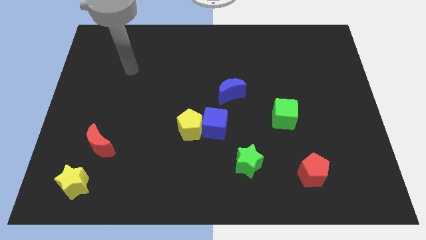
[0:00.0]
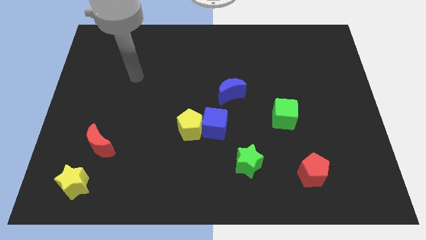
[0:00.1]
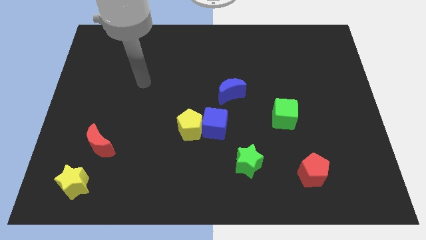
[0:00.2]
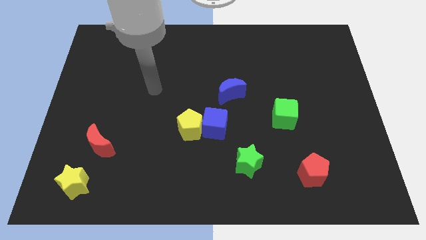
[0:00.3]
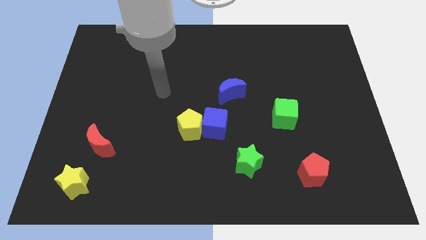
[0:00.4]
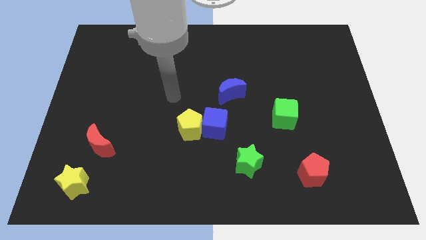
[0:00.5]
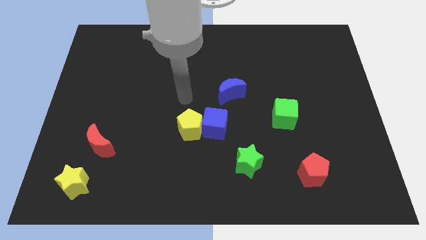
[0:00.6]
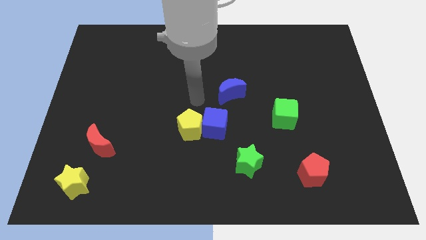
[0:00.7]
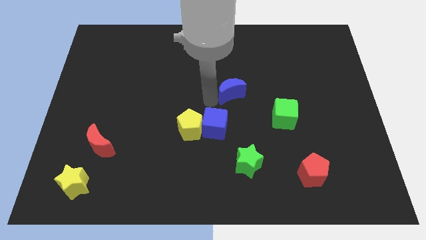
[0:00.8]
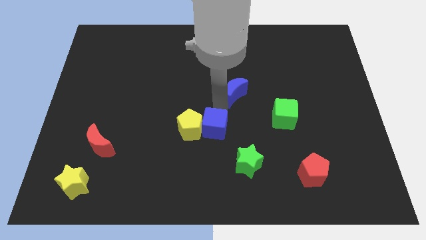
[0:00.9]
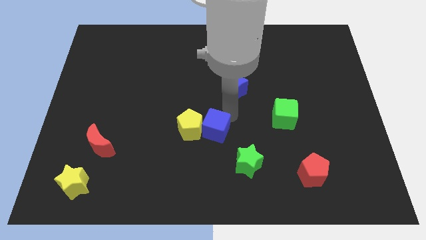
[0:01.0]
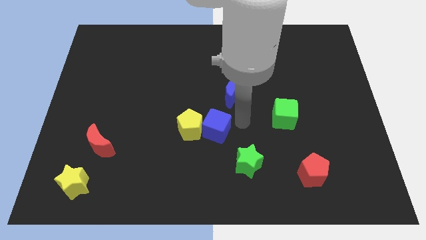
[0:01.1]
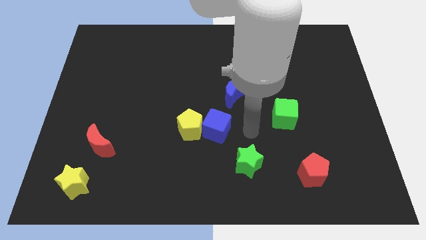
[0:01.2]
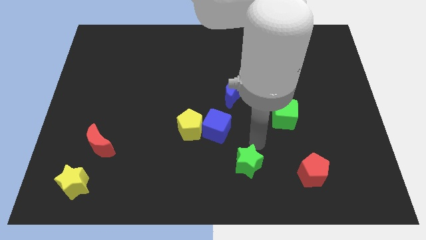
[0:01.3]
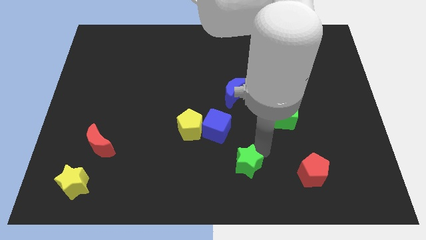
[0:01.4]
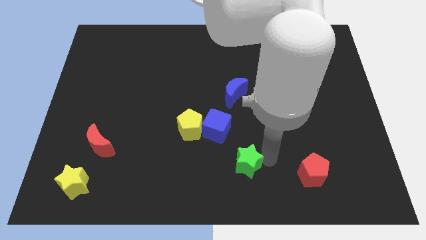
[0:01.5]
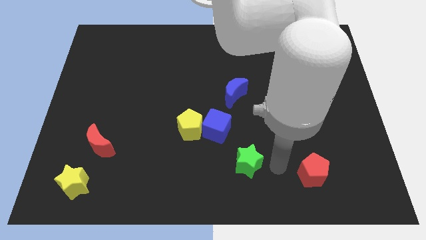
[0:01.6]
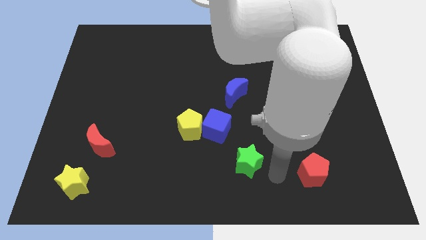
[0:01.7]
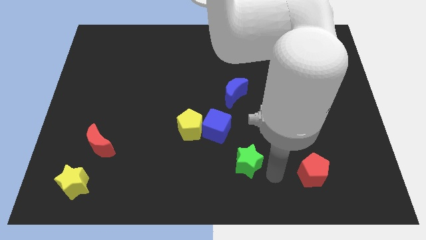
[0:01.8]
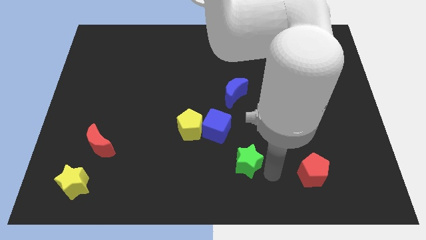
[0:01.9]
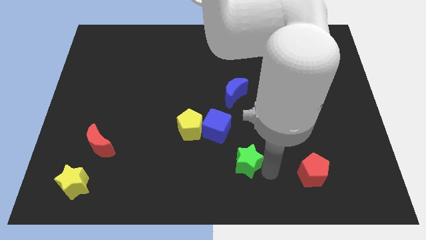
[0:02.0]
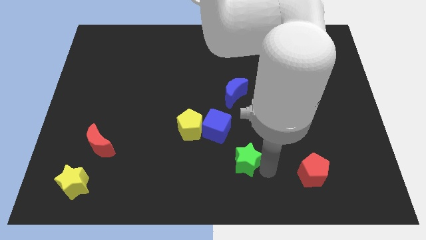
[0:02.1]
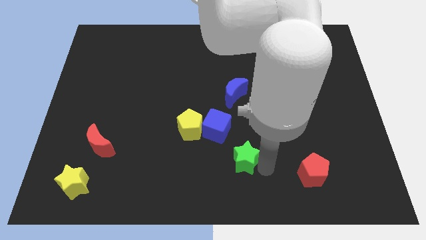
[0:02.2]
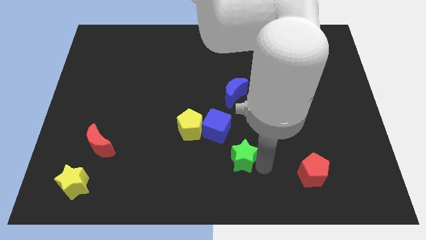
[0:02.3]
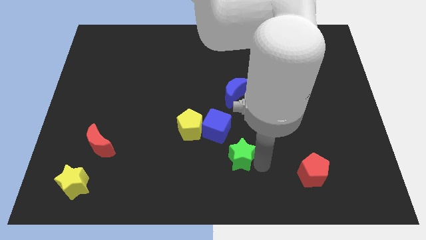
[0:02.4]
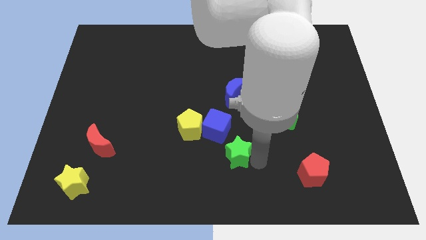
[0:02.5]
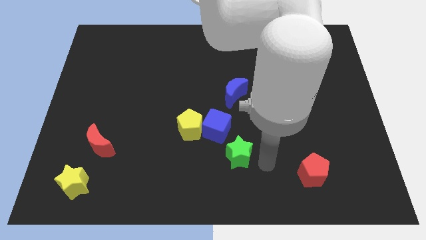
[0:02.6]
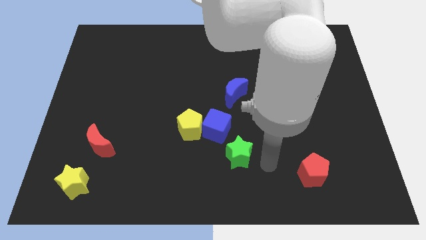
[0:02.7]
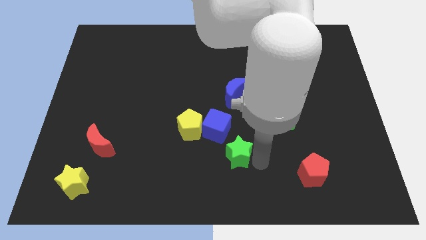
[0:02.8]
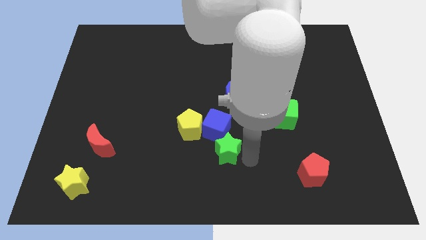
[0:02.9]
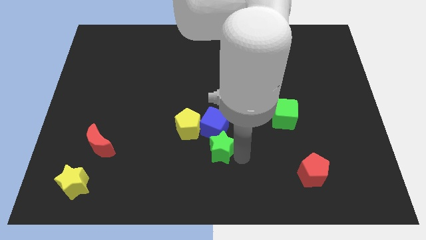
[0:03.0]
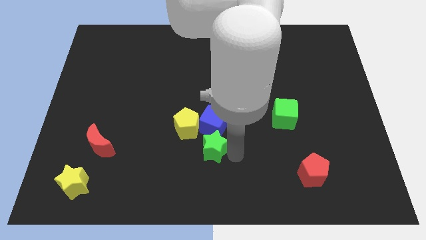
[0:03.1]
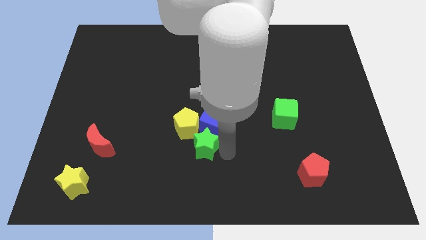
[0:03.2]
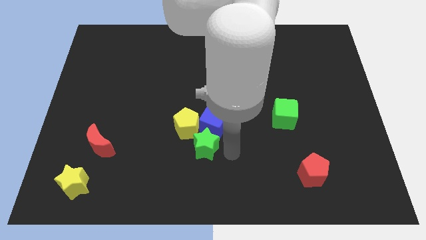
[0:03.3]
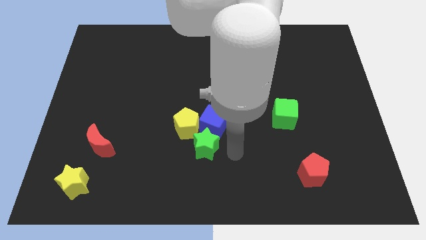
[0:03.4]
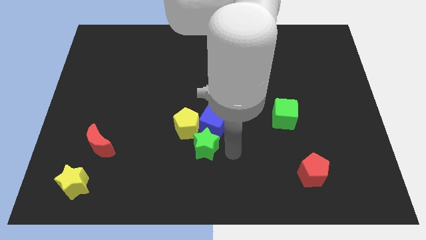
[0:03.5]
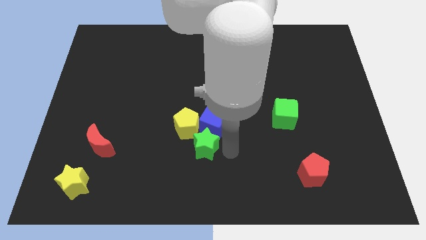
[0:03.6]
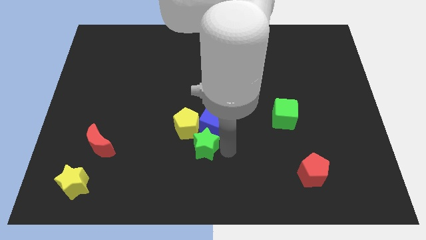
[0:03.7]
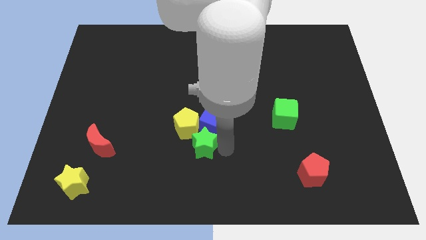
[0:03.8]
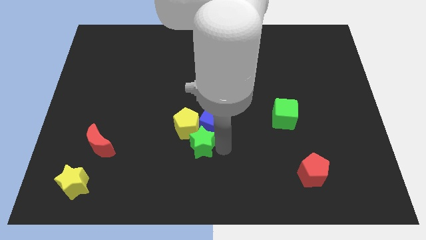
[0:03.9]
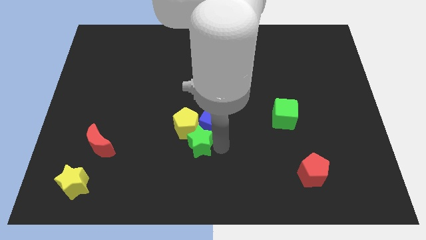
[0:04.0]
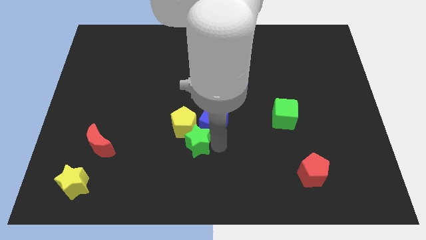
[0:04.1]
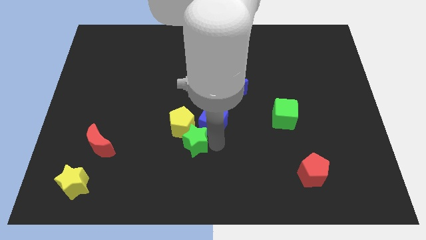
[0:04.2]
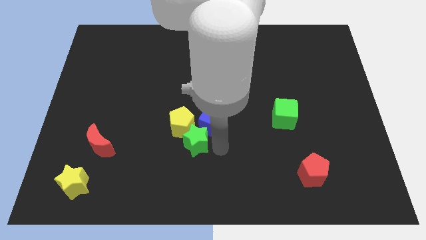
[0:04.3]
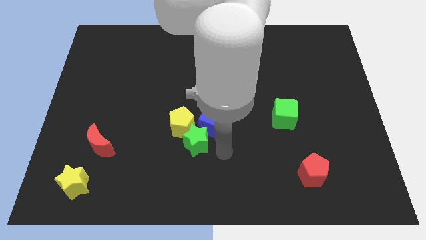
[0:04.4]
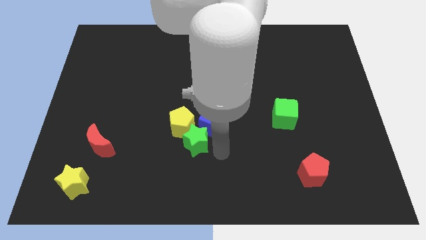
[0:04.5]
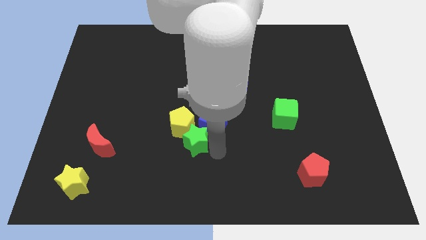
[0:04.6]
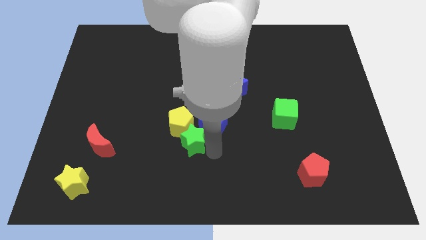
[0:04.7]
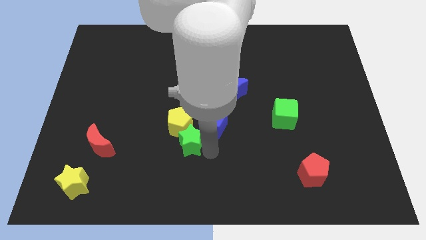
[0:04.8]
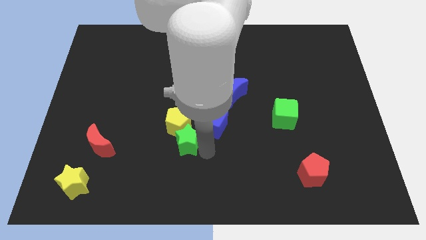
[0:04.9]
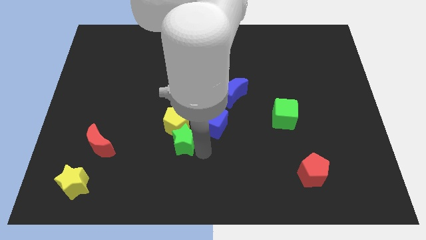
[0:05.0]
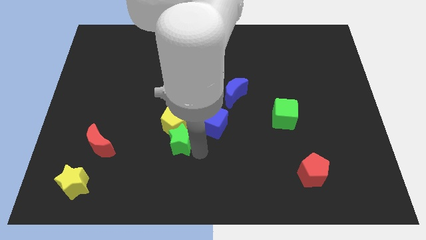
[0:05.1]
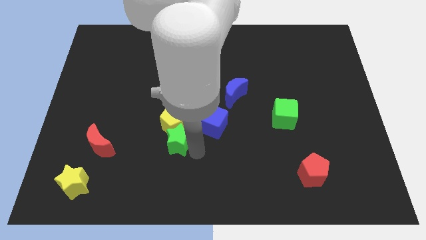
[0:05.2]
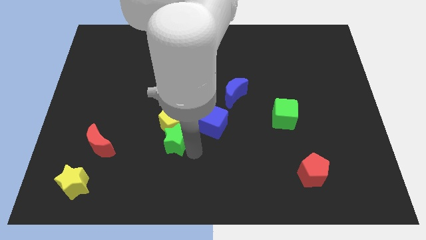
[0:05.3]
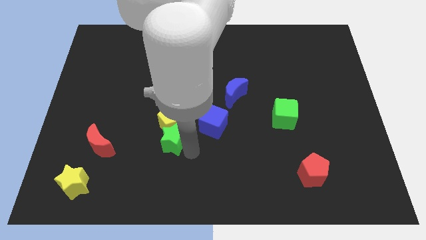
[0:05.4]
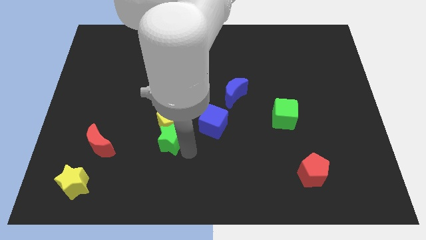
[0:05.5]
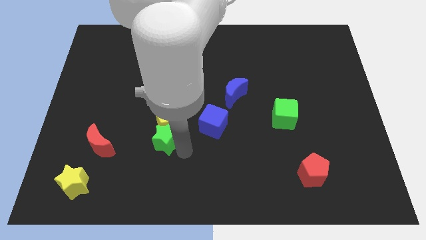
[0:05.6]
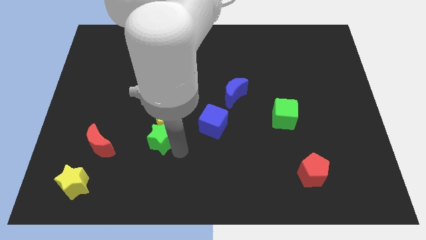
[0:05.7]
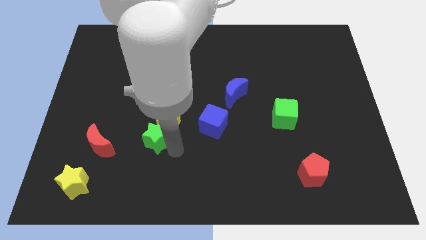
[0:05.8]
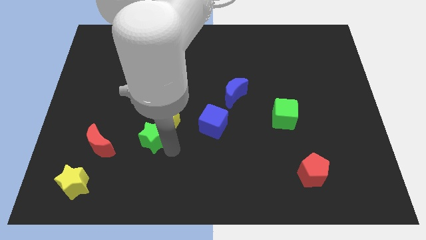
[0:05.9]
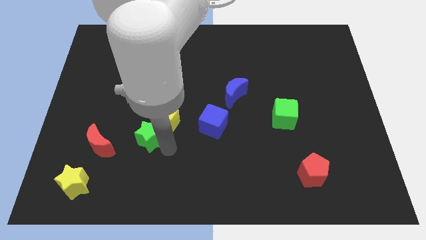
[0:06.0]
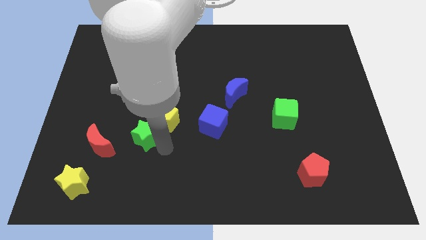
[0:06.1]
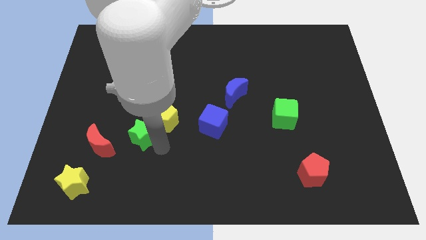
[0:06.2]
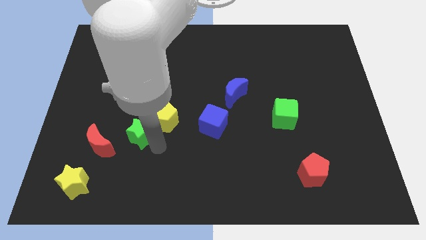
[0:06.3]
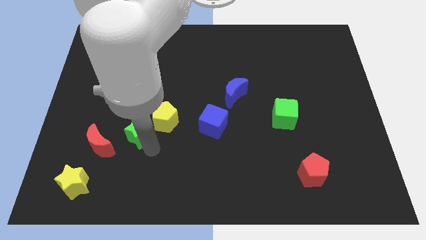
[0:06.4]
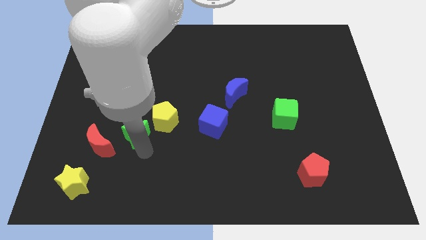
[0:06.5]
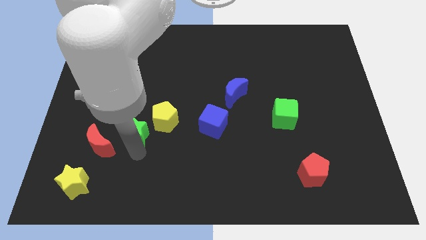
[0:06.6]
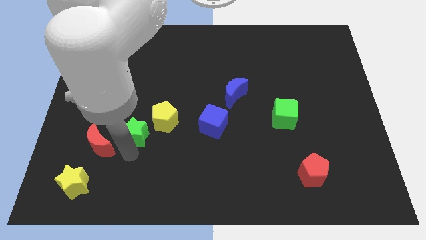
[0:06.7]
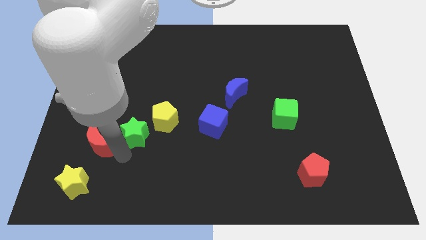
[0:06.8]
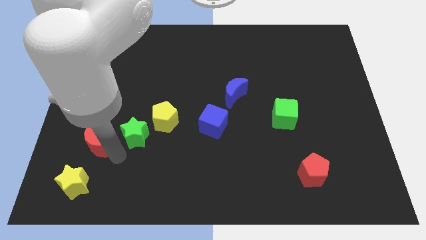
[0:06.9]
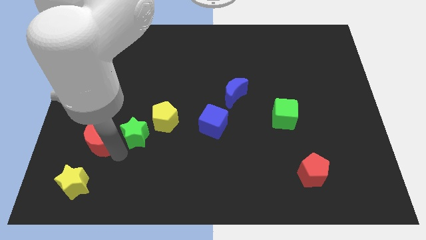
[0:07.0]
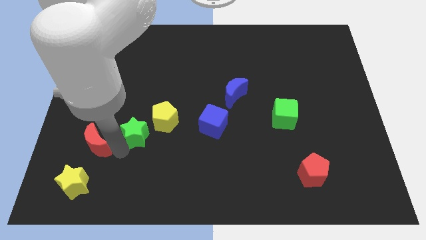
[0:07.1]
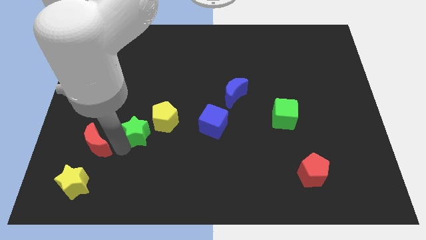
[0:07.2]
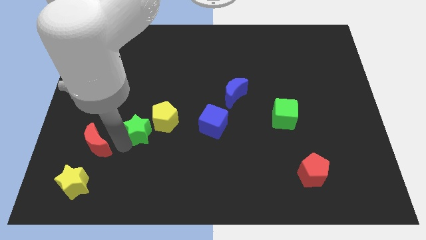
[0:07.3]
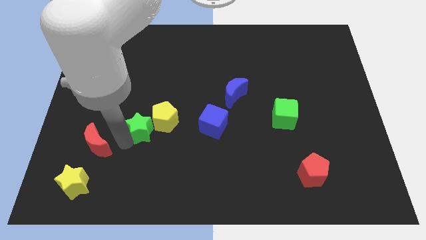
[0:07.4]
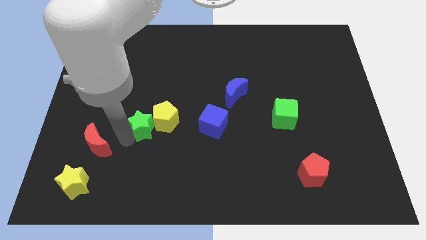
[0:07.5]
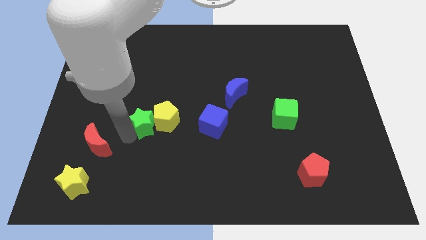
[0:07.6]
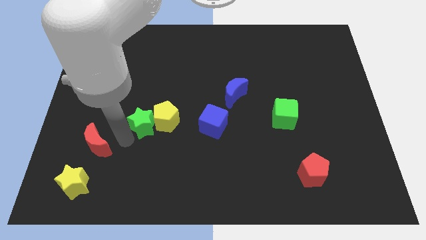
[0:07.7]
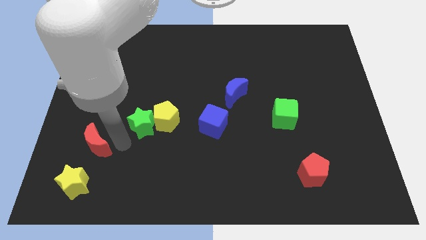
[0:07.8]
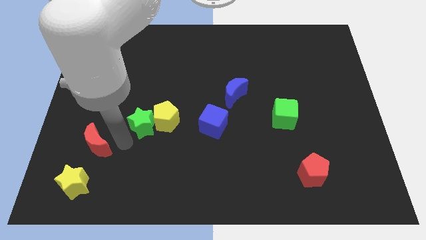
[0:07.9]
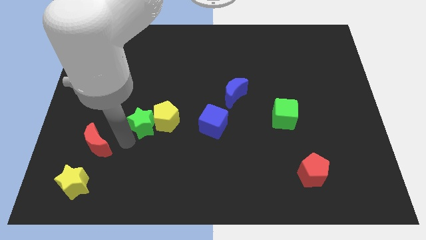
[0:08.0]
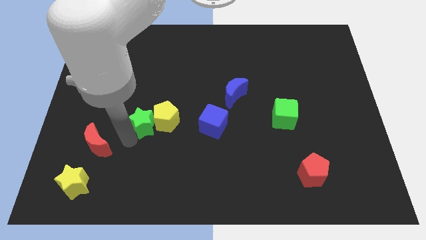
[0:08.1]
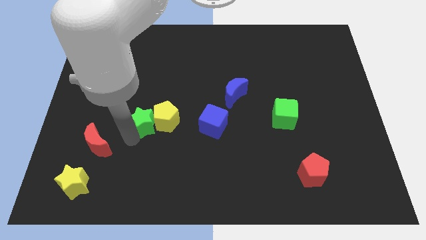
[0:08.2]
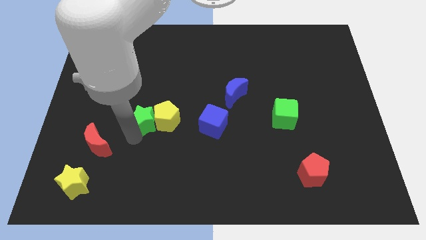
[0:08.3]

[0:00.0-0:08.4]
move the green star diagonally upwards and to the left
